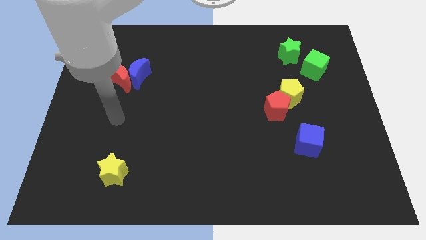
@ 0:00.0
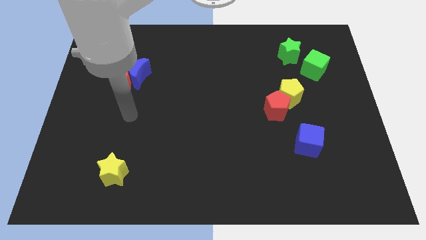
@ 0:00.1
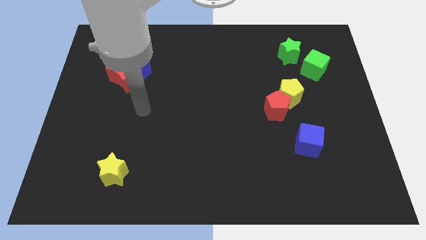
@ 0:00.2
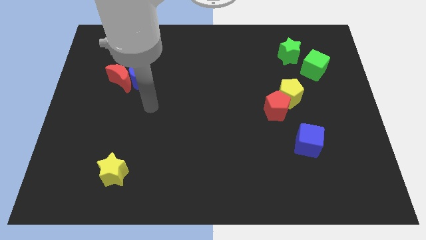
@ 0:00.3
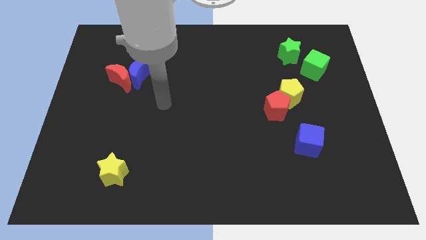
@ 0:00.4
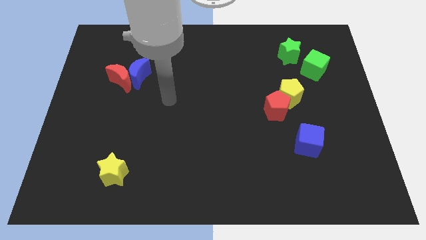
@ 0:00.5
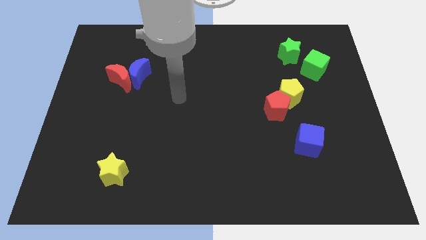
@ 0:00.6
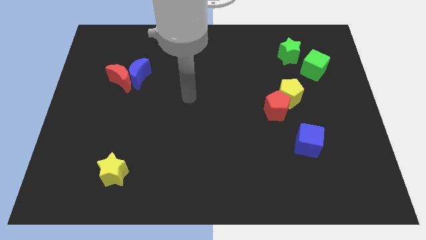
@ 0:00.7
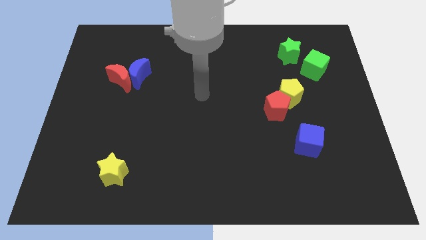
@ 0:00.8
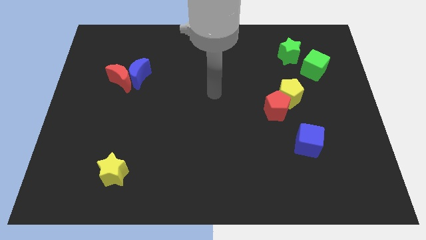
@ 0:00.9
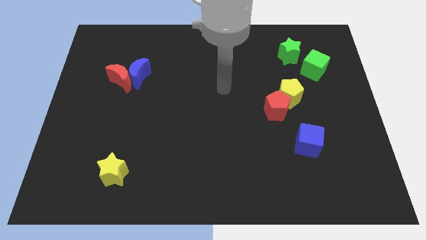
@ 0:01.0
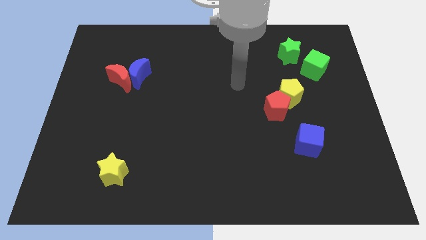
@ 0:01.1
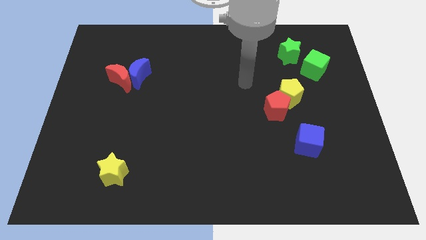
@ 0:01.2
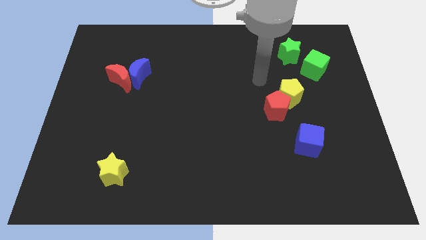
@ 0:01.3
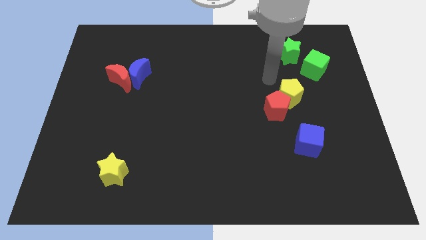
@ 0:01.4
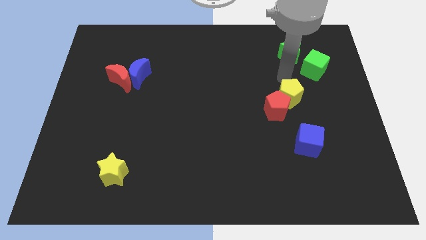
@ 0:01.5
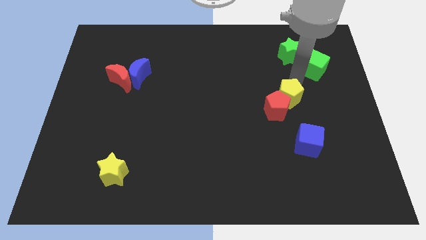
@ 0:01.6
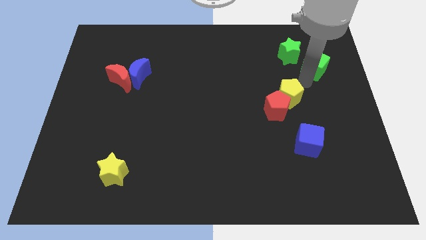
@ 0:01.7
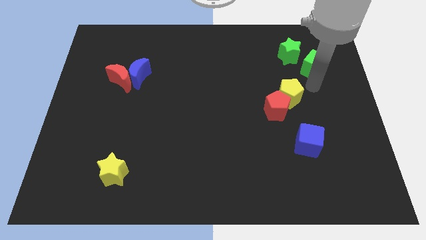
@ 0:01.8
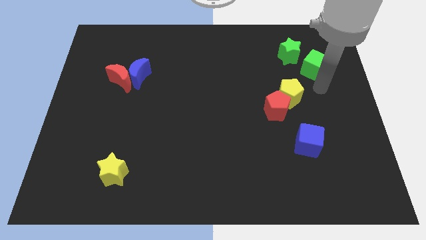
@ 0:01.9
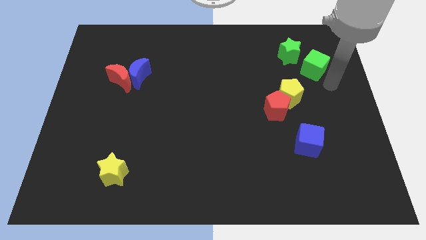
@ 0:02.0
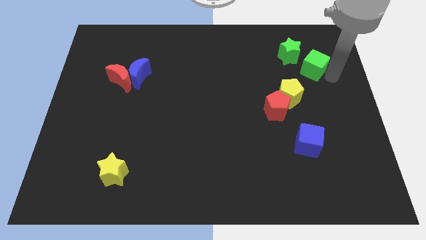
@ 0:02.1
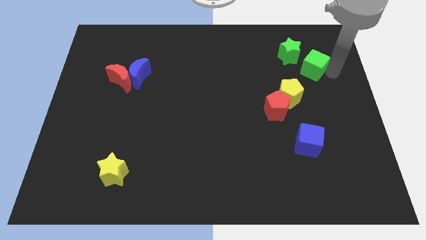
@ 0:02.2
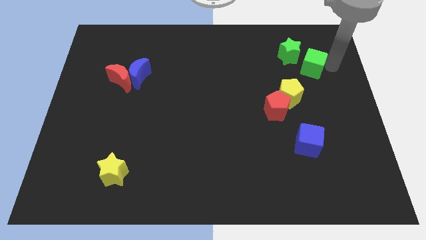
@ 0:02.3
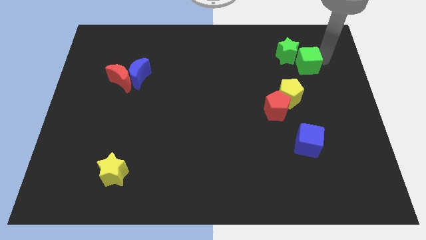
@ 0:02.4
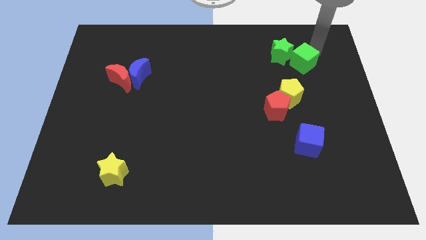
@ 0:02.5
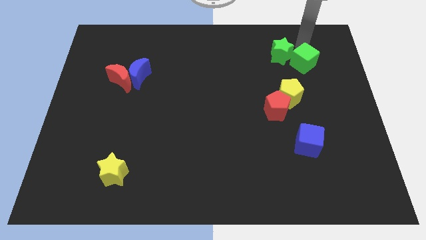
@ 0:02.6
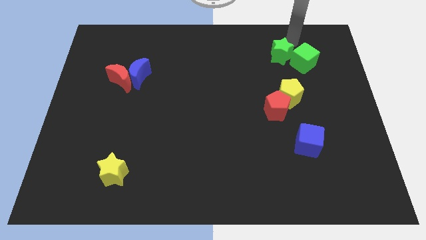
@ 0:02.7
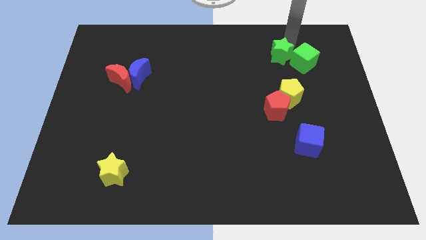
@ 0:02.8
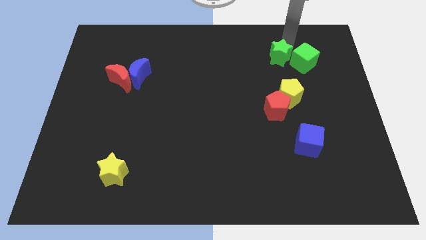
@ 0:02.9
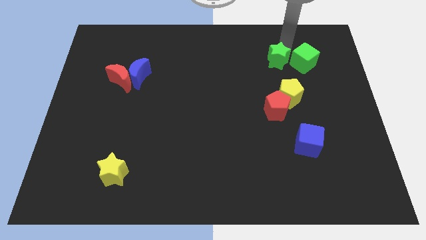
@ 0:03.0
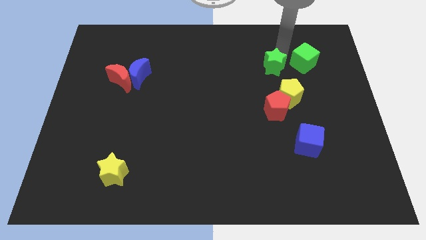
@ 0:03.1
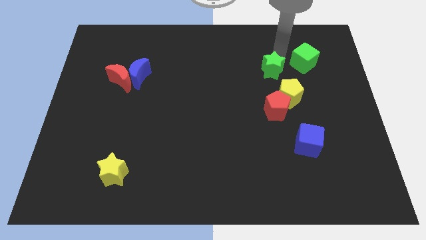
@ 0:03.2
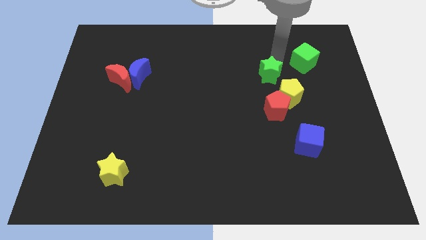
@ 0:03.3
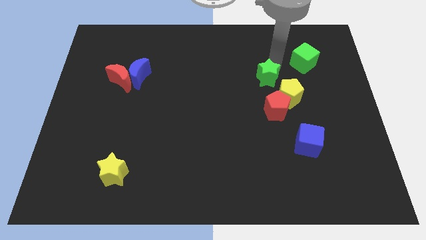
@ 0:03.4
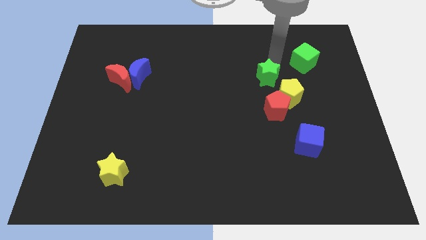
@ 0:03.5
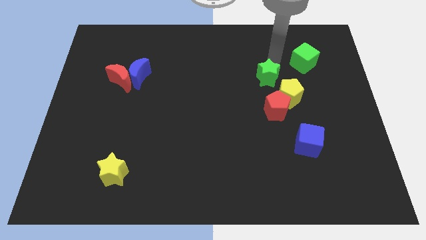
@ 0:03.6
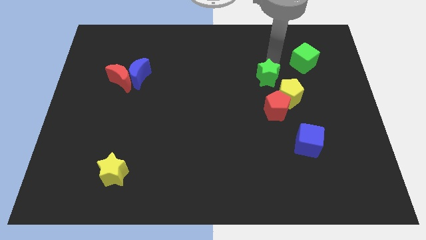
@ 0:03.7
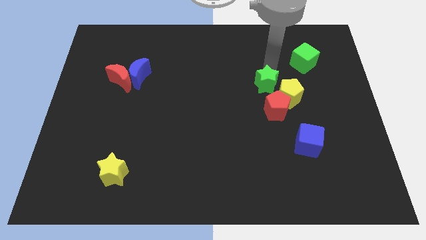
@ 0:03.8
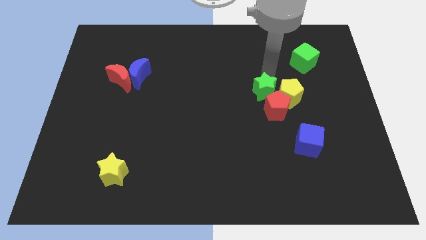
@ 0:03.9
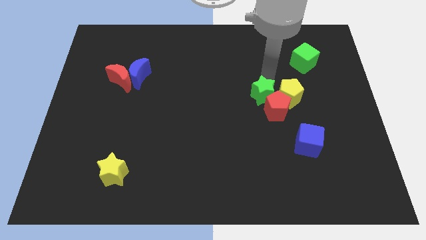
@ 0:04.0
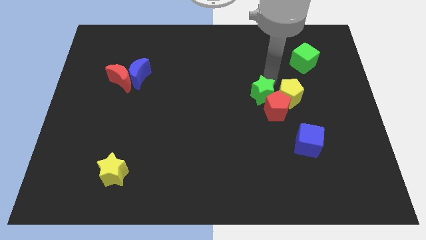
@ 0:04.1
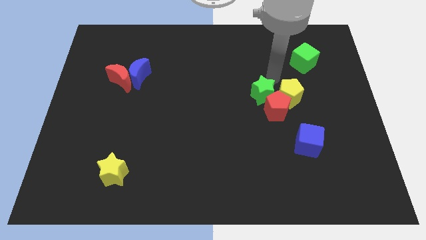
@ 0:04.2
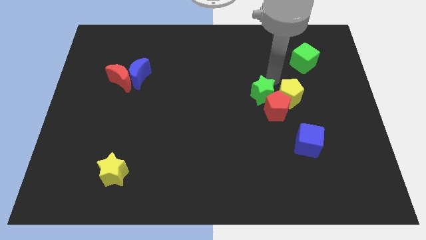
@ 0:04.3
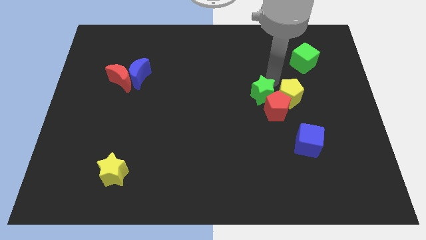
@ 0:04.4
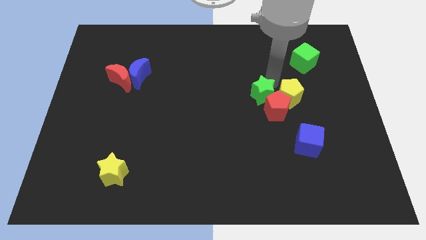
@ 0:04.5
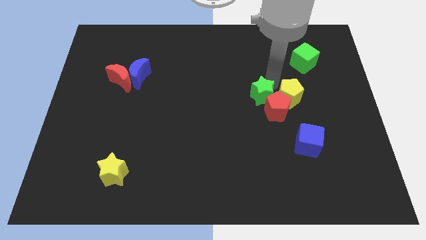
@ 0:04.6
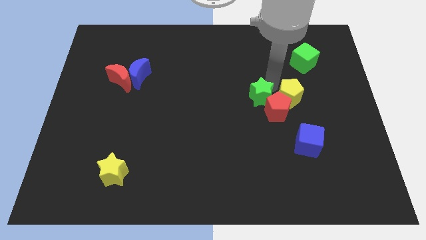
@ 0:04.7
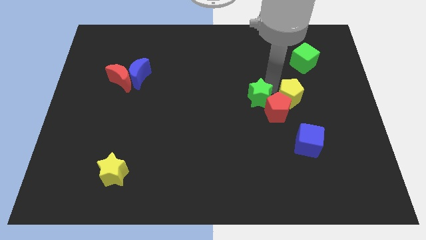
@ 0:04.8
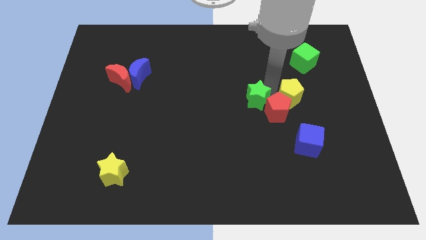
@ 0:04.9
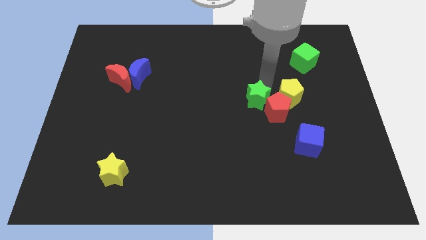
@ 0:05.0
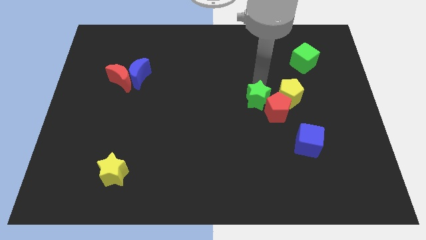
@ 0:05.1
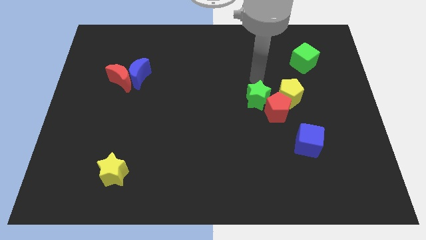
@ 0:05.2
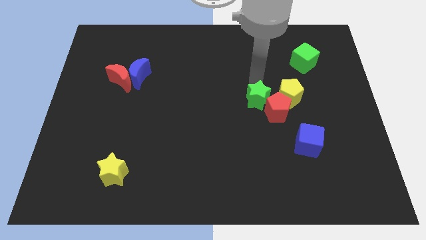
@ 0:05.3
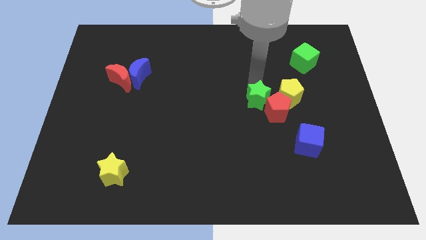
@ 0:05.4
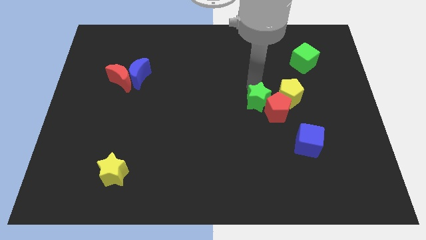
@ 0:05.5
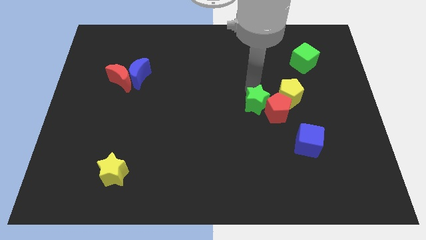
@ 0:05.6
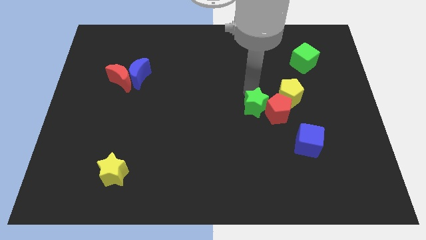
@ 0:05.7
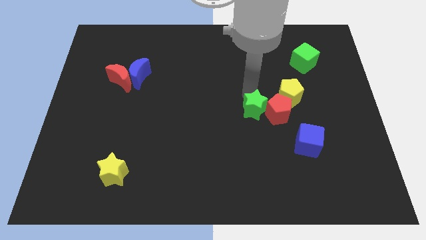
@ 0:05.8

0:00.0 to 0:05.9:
push the green star to the bottom left of the red pentagon
